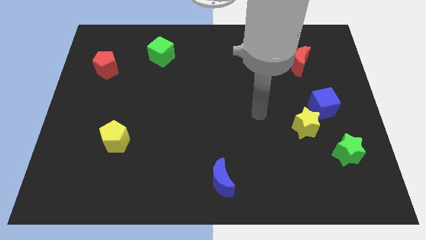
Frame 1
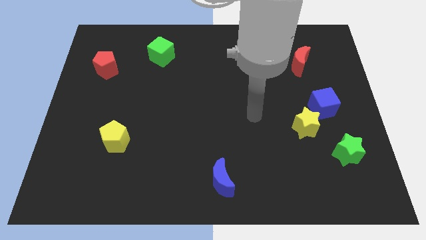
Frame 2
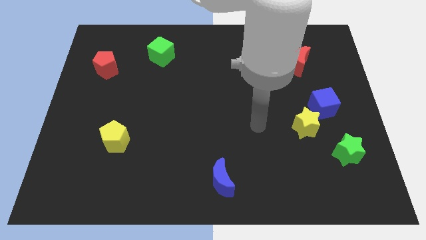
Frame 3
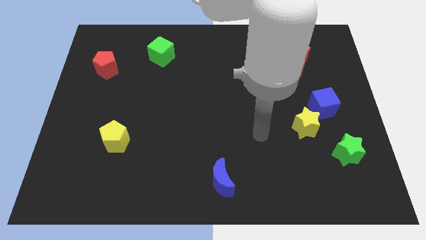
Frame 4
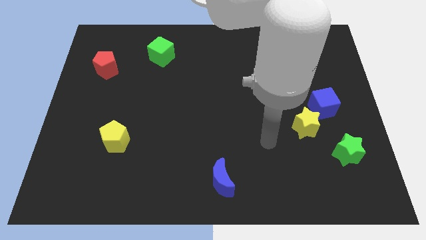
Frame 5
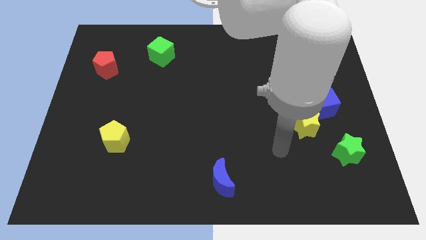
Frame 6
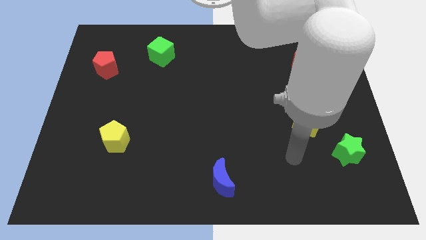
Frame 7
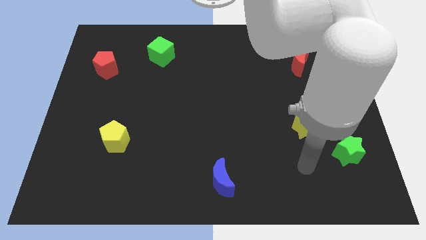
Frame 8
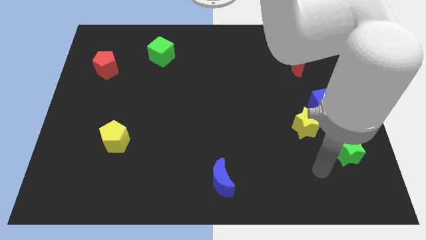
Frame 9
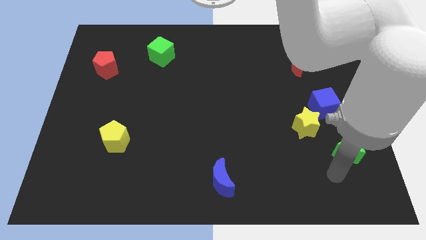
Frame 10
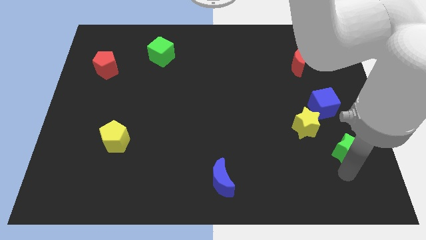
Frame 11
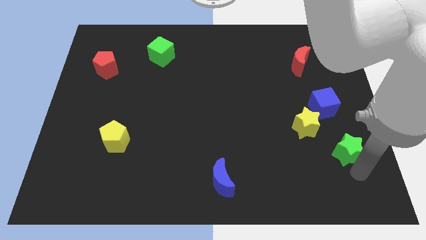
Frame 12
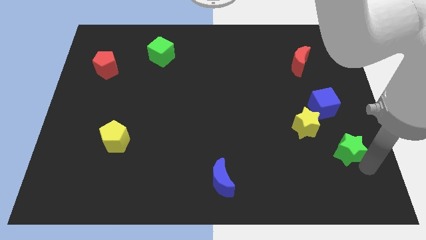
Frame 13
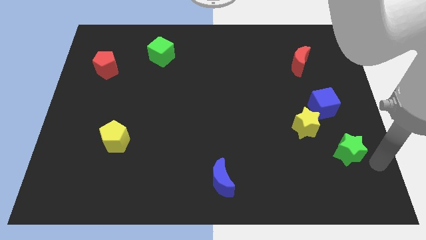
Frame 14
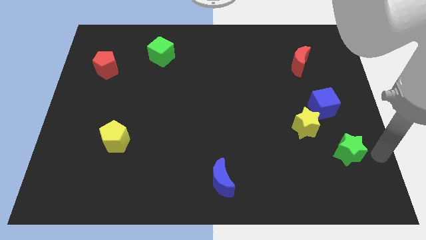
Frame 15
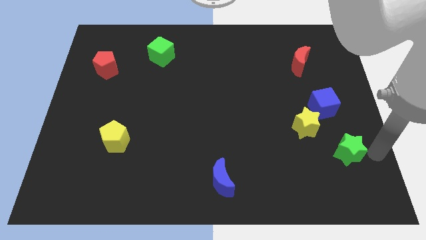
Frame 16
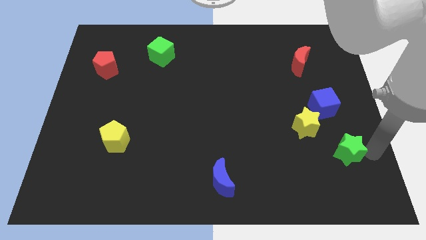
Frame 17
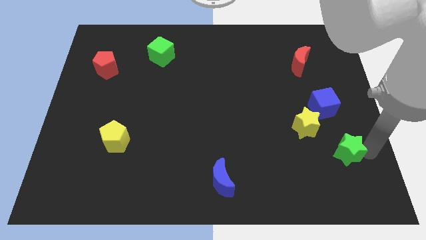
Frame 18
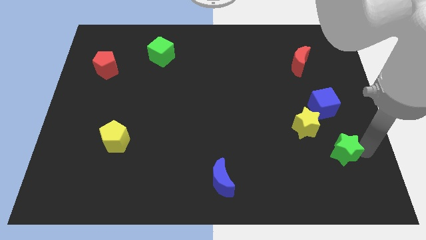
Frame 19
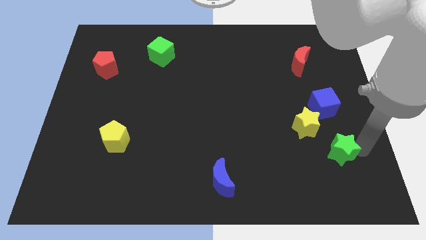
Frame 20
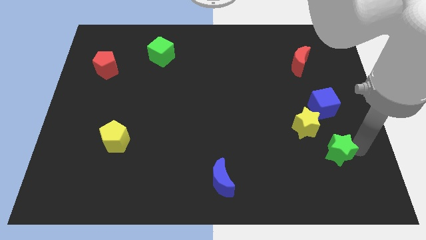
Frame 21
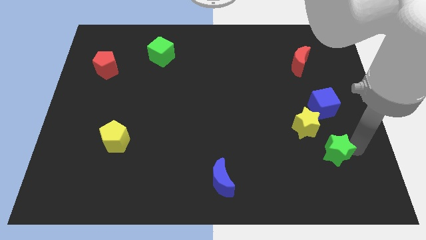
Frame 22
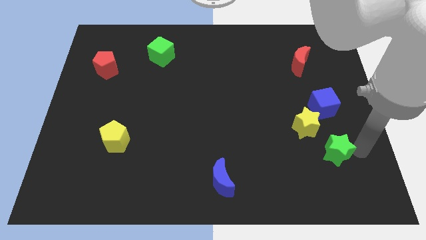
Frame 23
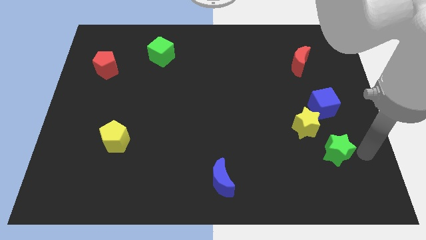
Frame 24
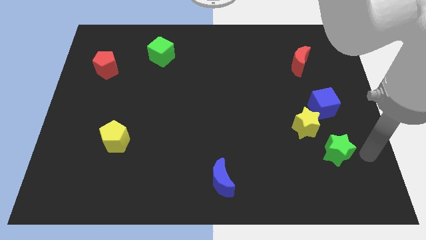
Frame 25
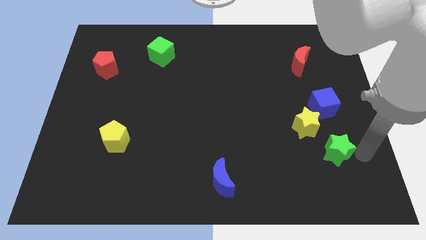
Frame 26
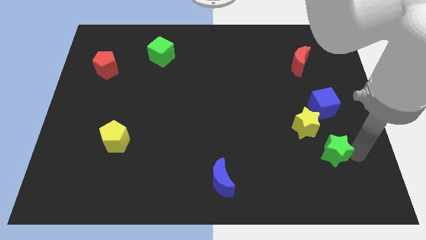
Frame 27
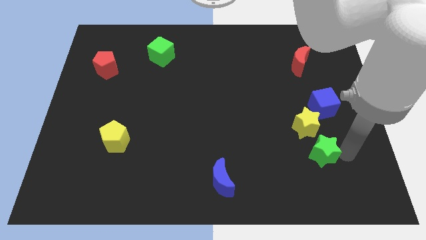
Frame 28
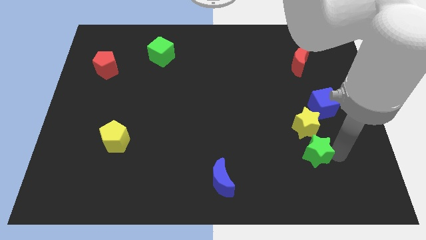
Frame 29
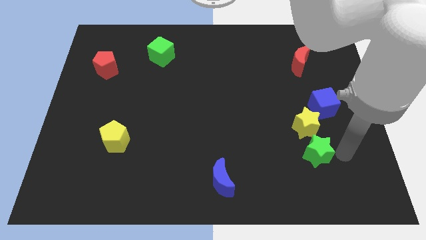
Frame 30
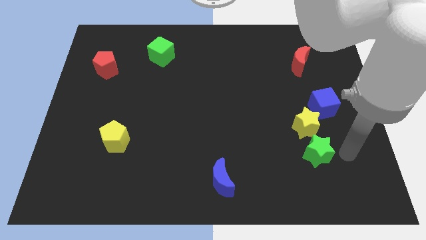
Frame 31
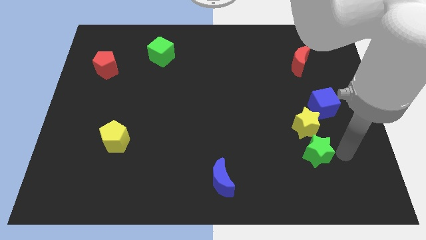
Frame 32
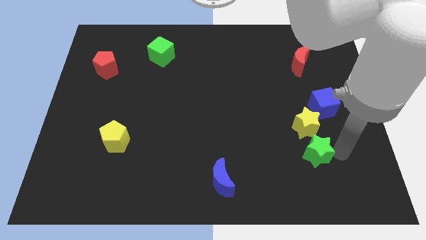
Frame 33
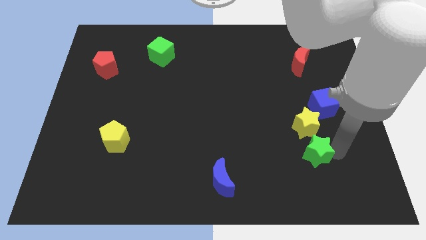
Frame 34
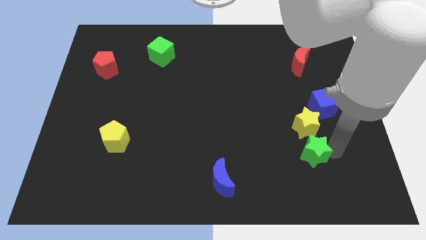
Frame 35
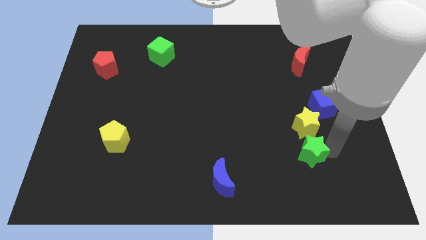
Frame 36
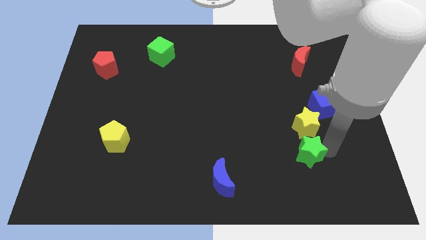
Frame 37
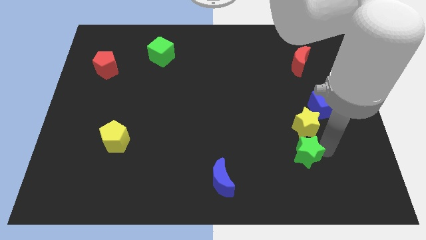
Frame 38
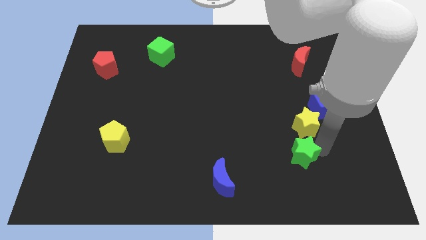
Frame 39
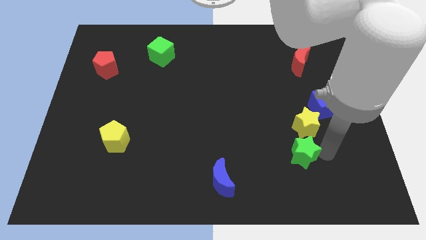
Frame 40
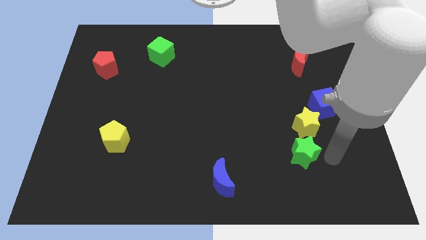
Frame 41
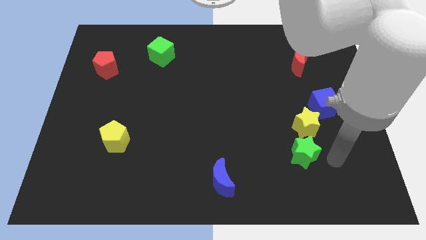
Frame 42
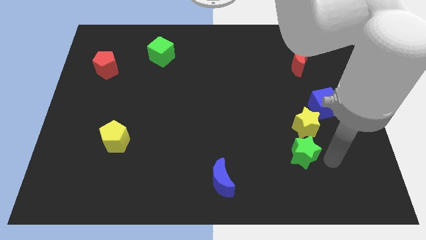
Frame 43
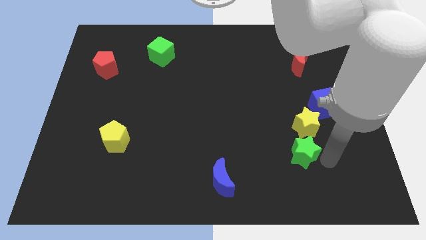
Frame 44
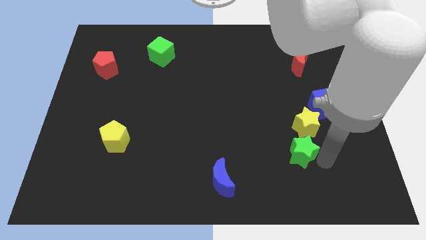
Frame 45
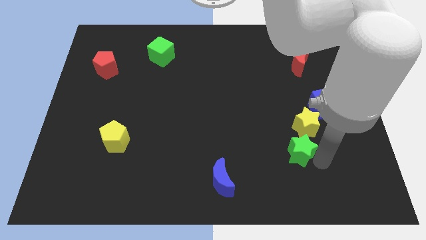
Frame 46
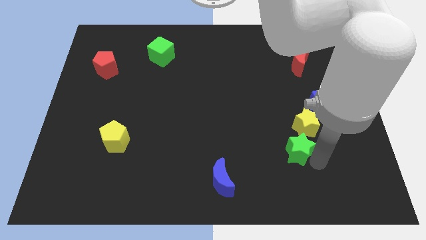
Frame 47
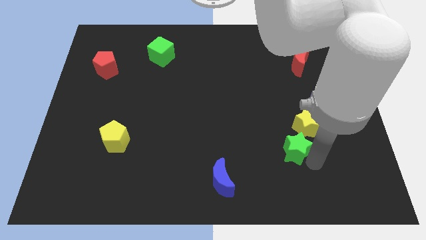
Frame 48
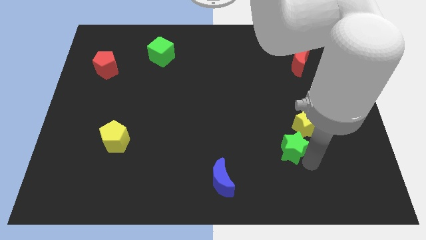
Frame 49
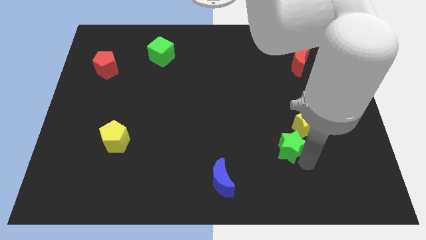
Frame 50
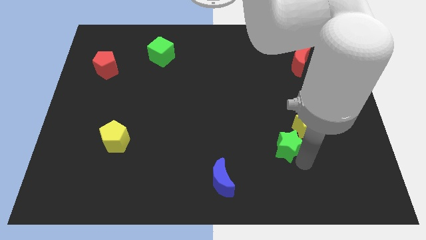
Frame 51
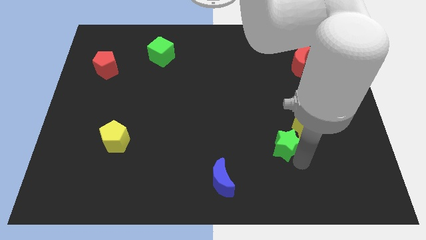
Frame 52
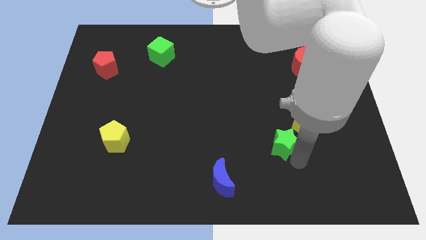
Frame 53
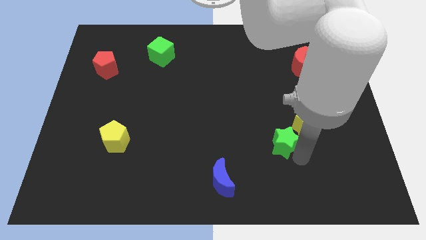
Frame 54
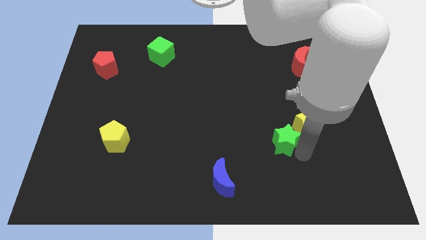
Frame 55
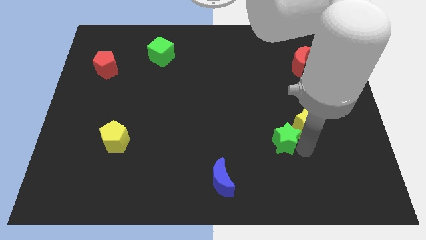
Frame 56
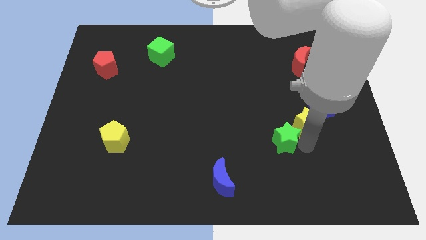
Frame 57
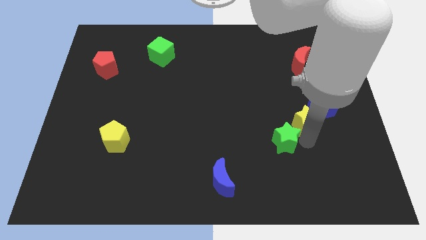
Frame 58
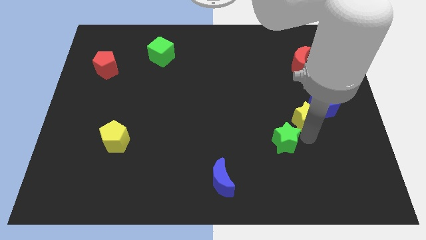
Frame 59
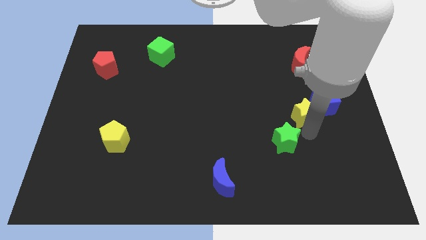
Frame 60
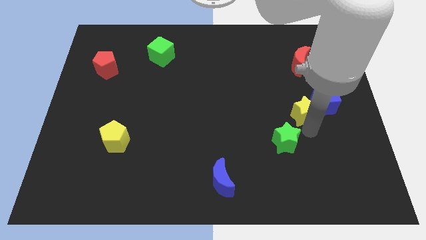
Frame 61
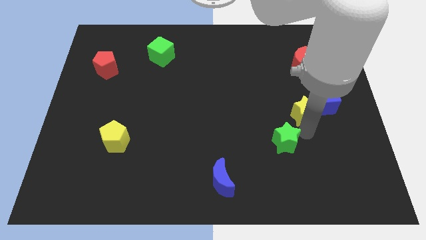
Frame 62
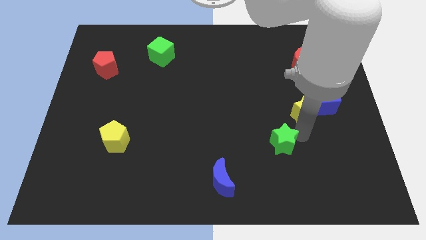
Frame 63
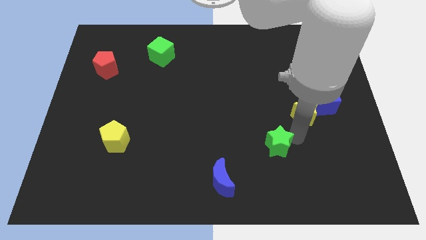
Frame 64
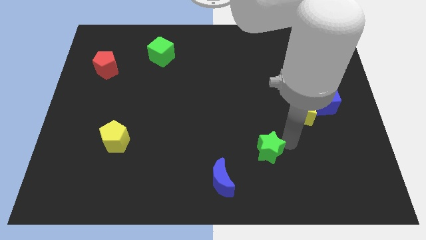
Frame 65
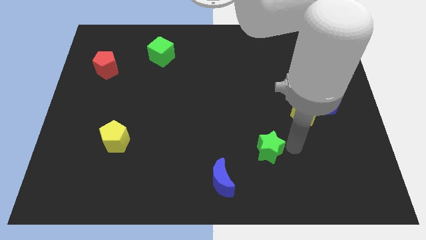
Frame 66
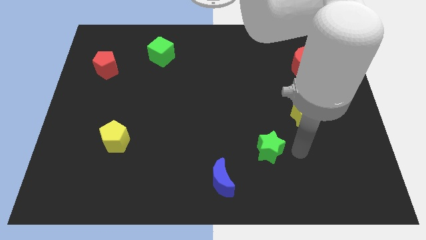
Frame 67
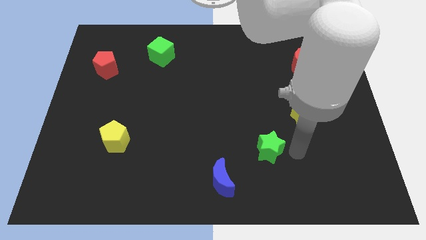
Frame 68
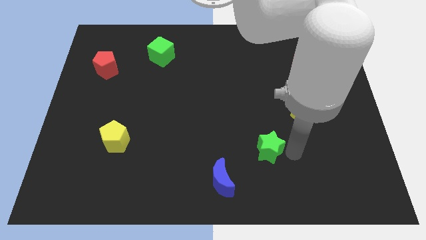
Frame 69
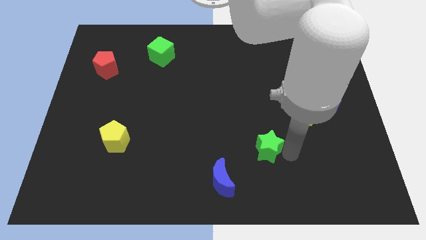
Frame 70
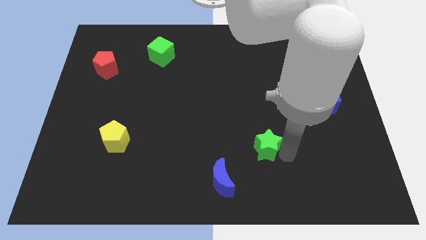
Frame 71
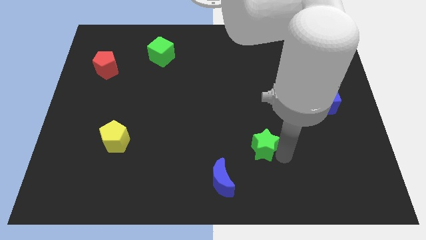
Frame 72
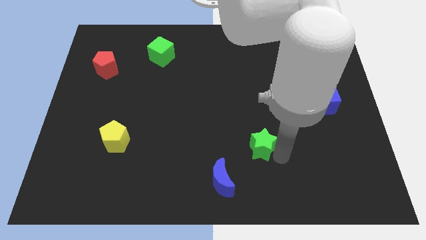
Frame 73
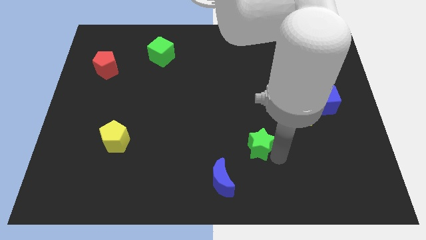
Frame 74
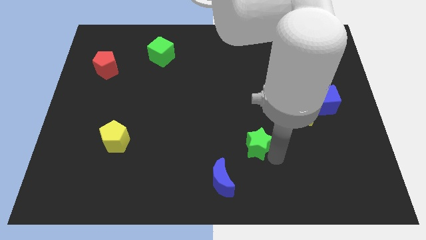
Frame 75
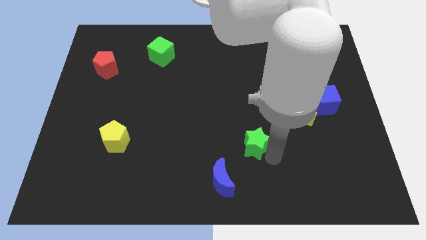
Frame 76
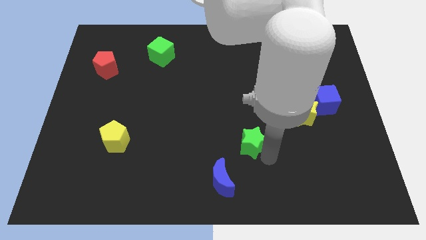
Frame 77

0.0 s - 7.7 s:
move the green star to the left

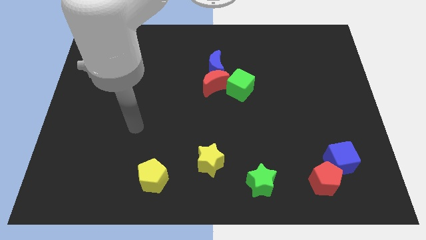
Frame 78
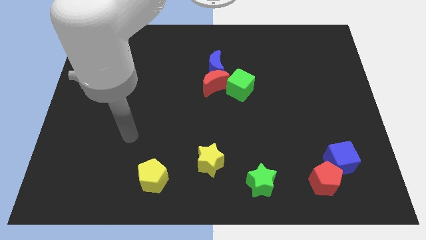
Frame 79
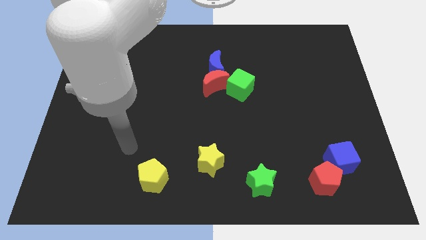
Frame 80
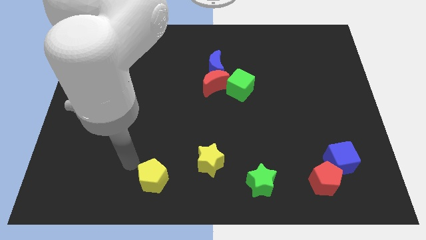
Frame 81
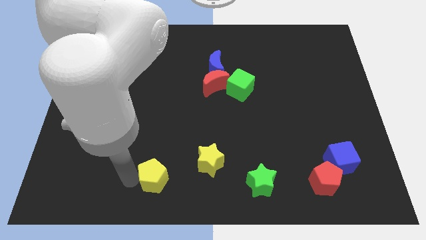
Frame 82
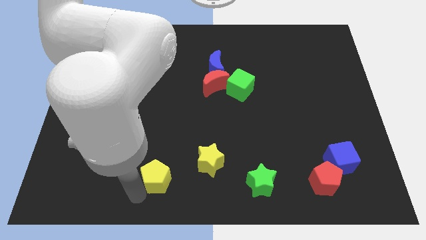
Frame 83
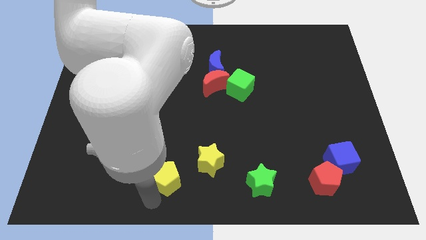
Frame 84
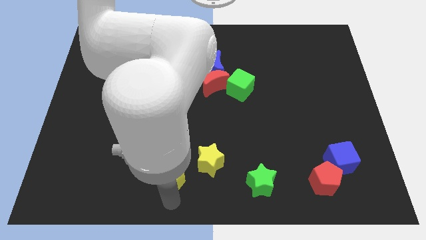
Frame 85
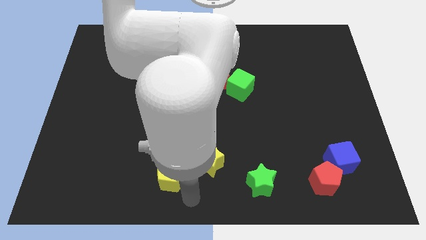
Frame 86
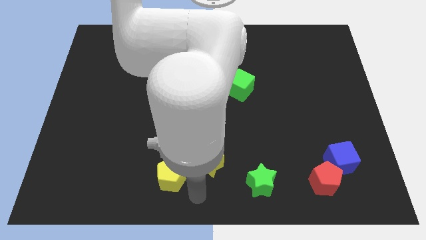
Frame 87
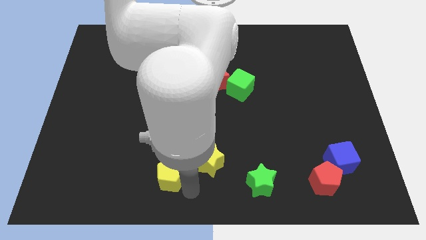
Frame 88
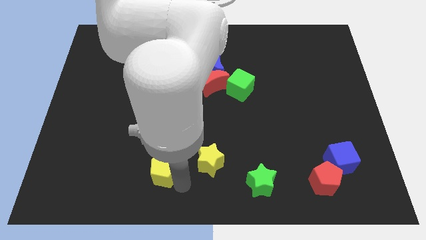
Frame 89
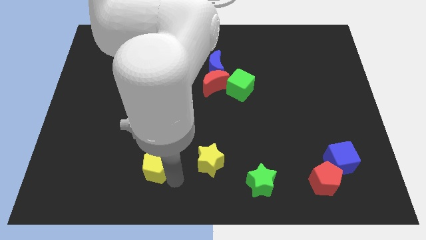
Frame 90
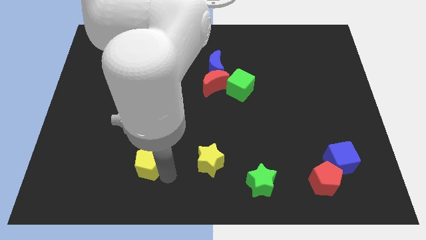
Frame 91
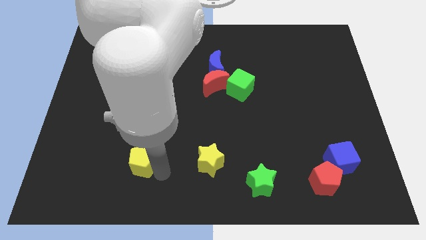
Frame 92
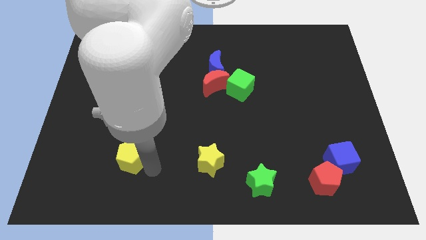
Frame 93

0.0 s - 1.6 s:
slightly push the yellow pentagon upwards and left diagonally
